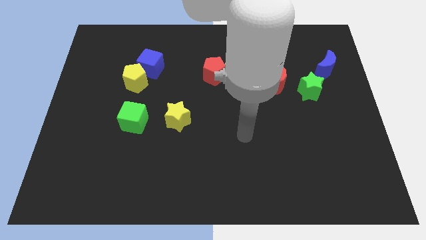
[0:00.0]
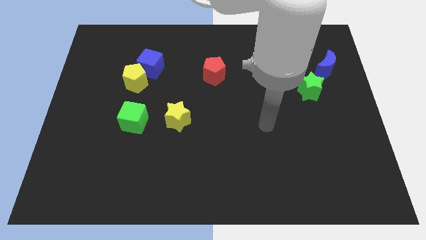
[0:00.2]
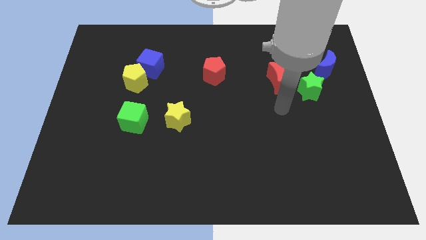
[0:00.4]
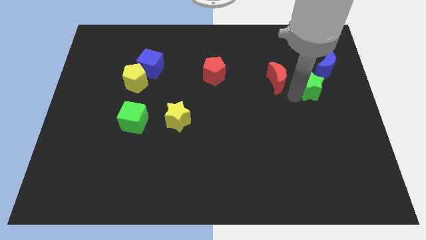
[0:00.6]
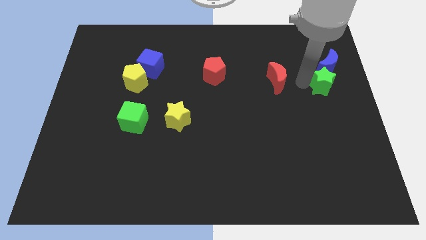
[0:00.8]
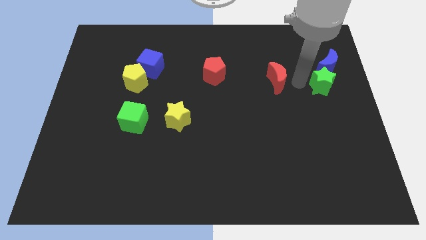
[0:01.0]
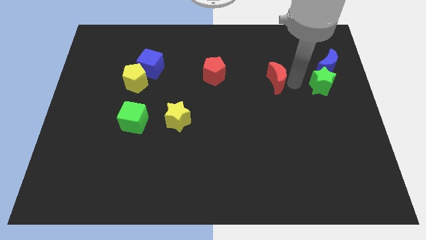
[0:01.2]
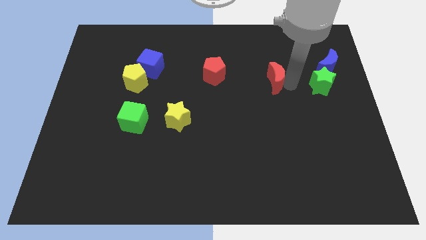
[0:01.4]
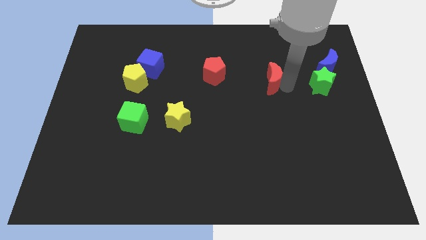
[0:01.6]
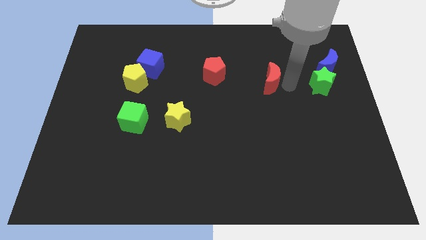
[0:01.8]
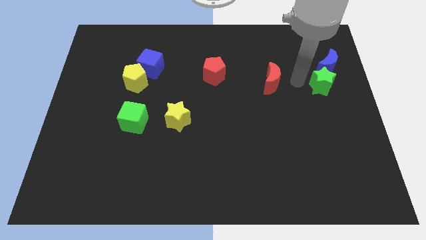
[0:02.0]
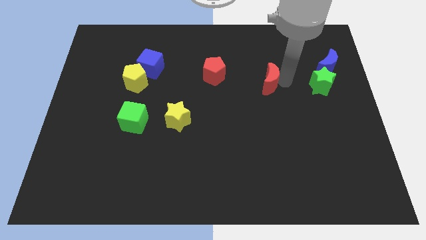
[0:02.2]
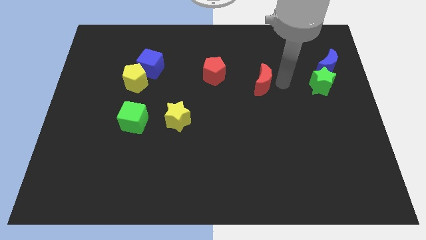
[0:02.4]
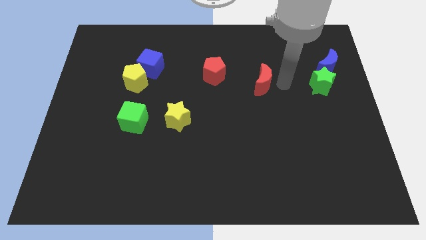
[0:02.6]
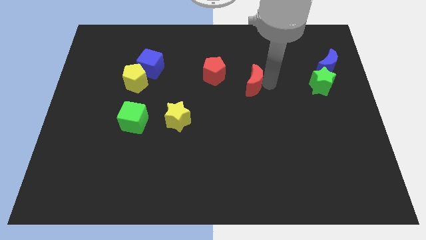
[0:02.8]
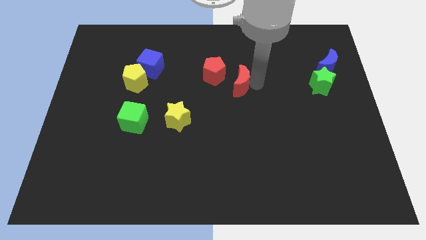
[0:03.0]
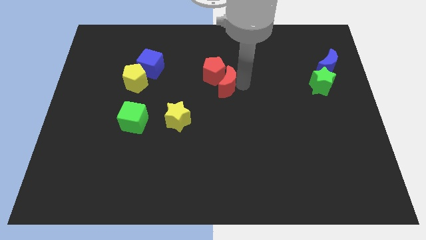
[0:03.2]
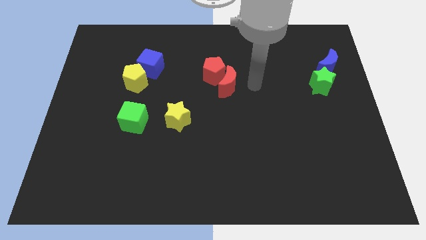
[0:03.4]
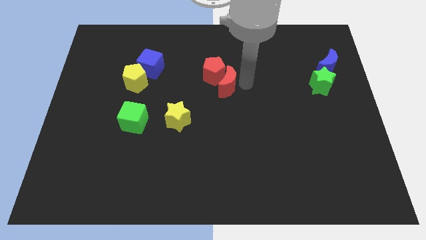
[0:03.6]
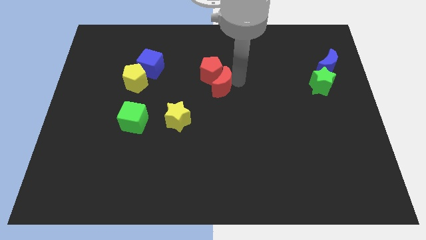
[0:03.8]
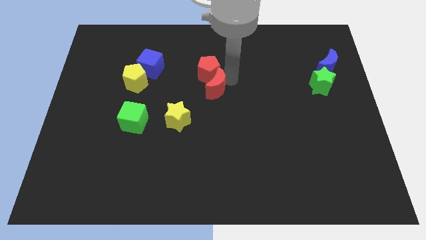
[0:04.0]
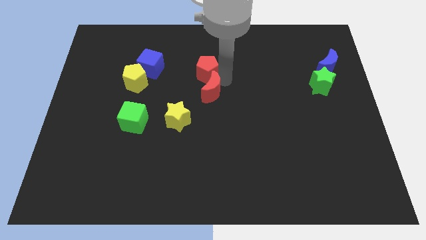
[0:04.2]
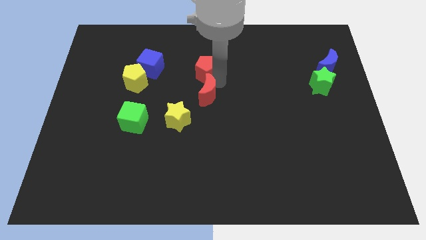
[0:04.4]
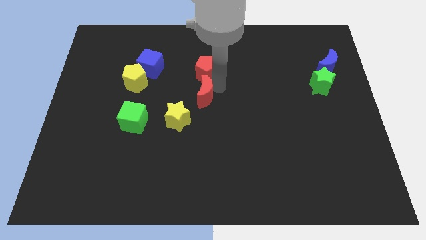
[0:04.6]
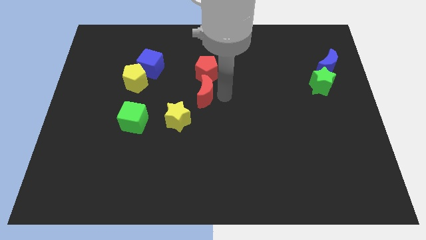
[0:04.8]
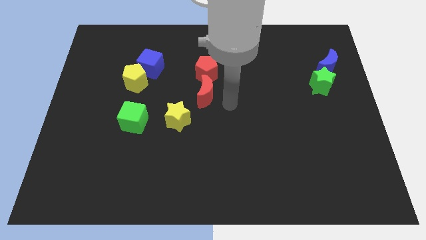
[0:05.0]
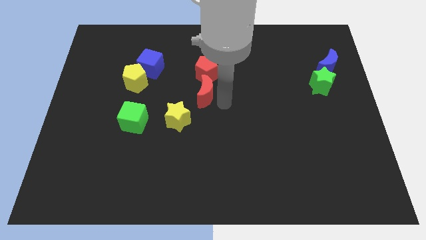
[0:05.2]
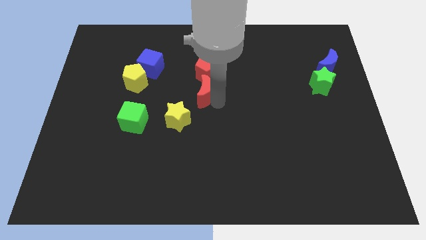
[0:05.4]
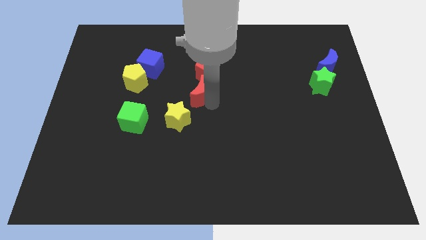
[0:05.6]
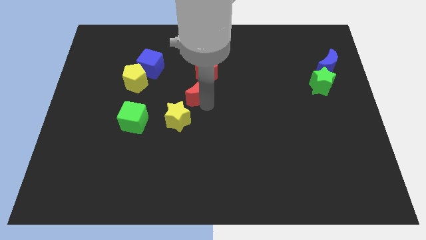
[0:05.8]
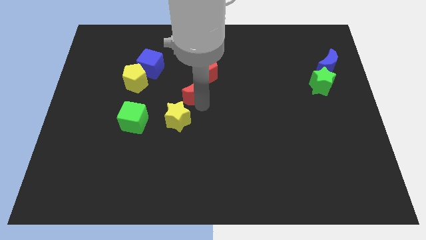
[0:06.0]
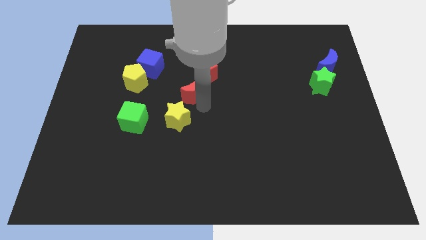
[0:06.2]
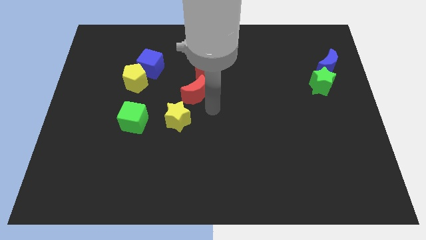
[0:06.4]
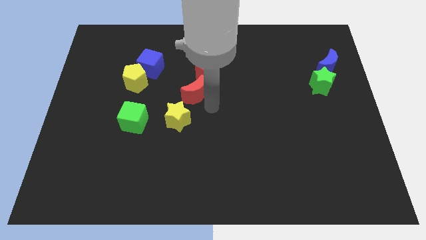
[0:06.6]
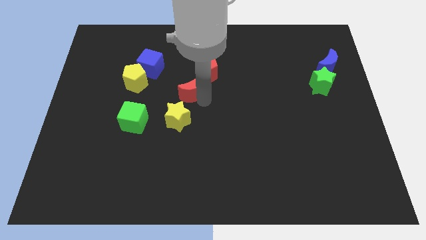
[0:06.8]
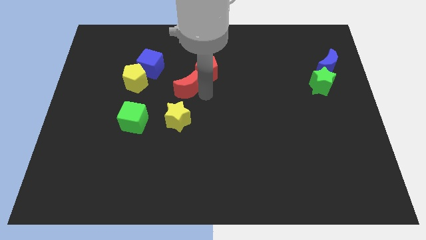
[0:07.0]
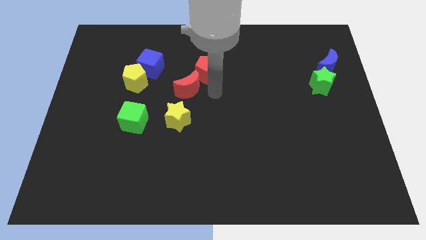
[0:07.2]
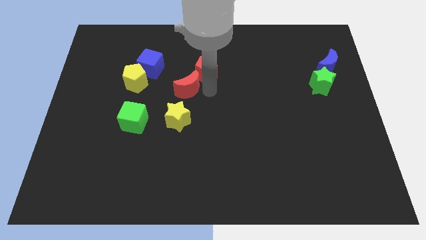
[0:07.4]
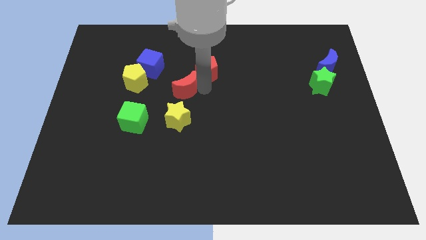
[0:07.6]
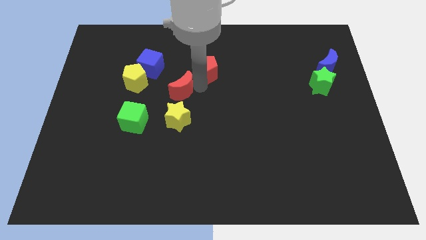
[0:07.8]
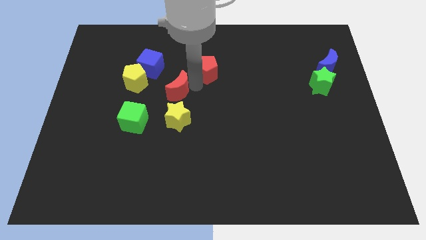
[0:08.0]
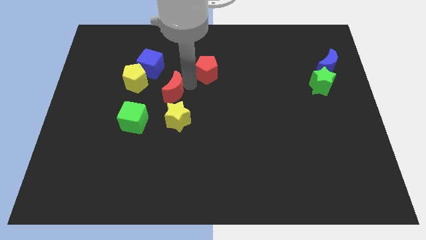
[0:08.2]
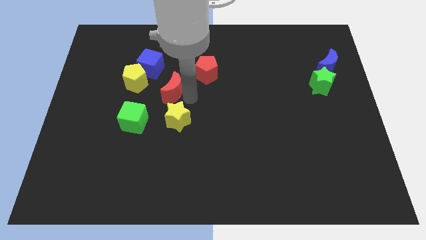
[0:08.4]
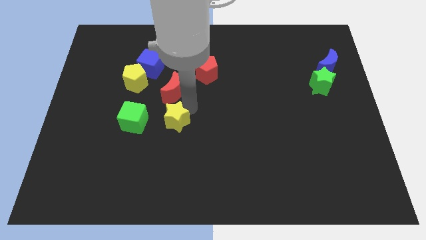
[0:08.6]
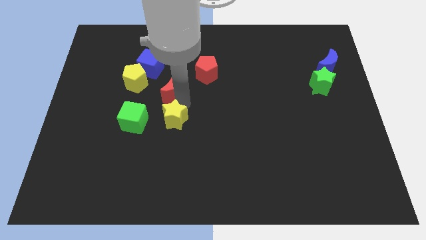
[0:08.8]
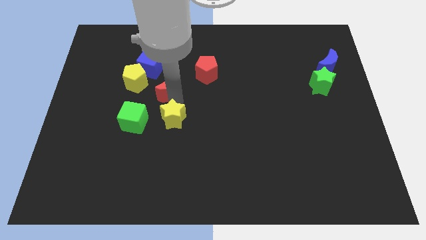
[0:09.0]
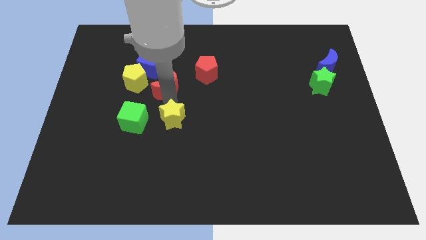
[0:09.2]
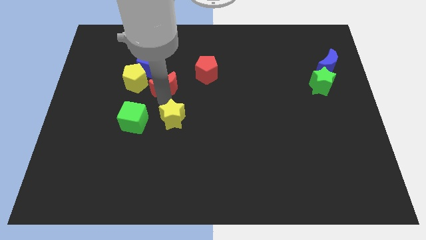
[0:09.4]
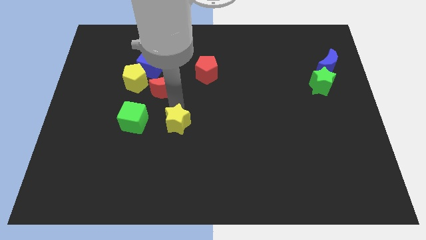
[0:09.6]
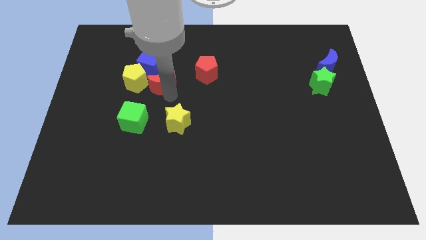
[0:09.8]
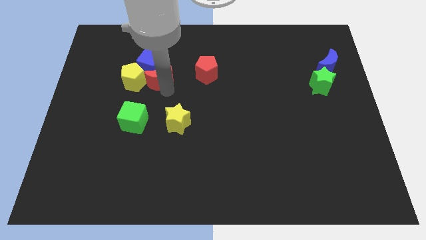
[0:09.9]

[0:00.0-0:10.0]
slide the red moon close to the blue cube

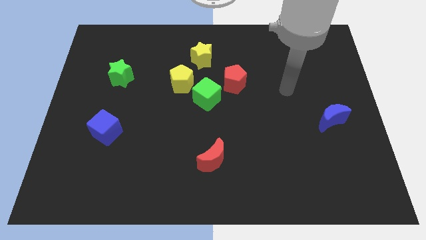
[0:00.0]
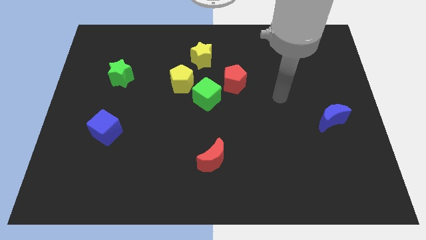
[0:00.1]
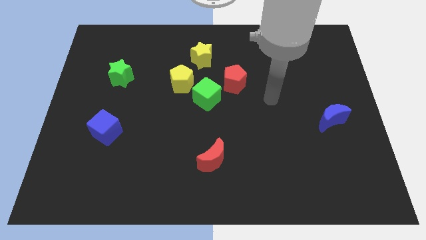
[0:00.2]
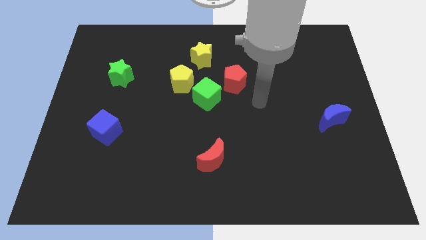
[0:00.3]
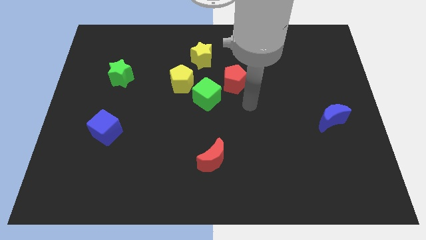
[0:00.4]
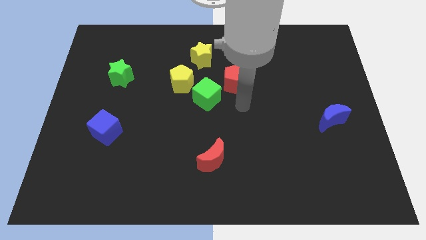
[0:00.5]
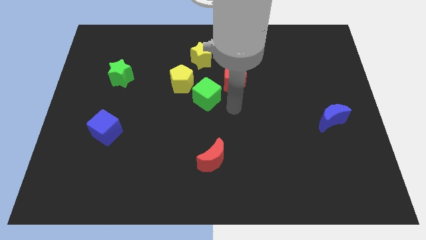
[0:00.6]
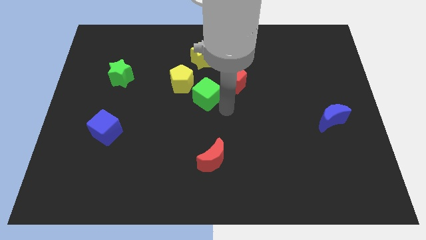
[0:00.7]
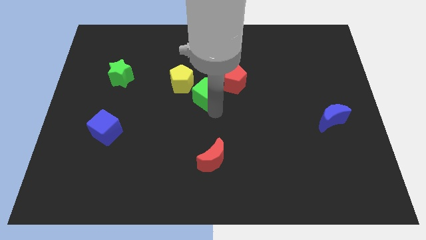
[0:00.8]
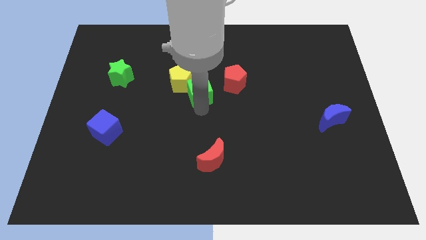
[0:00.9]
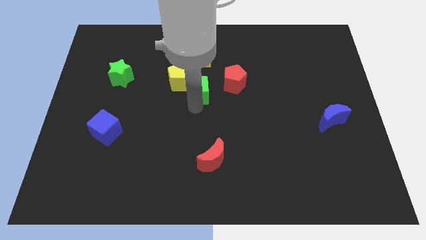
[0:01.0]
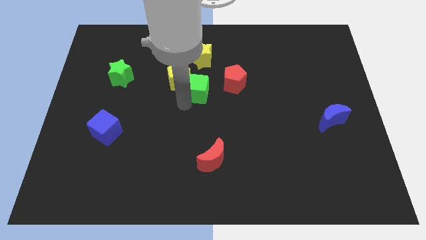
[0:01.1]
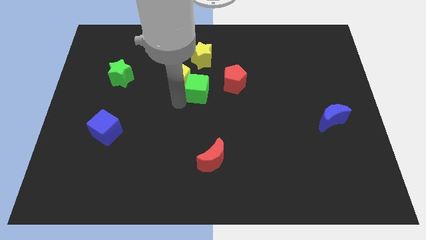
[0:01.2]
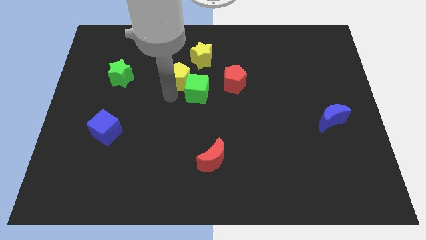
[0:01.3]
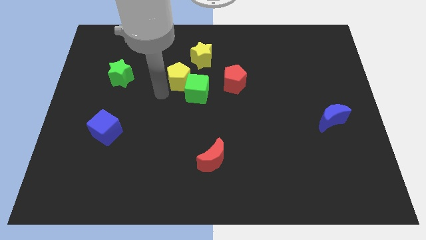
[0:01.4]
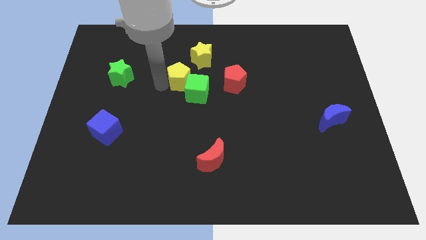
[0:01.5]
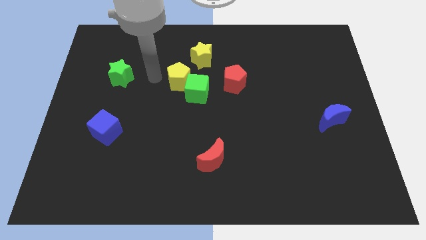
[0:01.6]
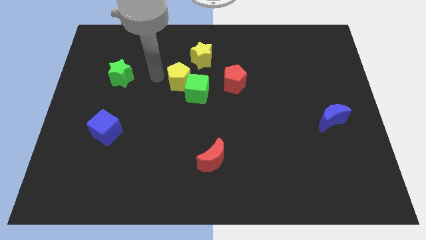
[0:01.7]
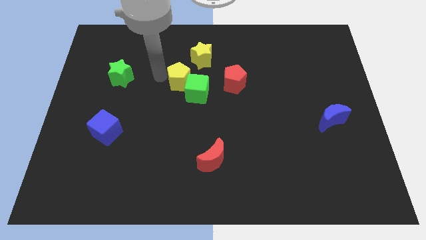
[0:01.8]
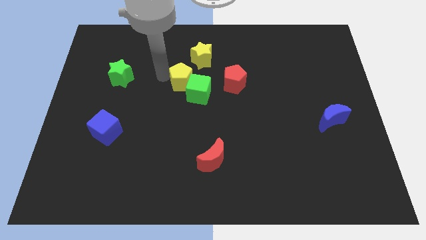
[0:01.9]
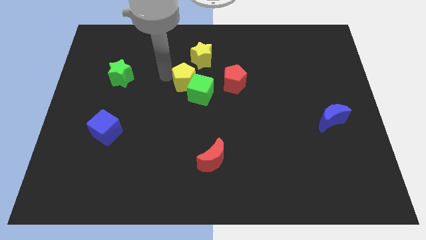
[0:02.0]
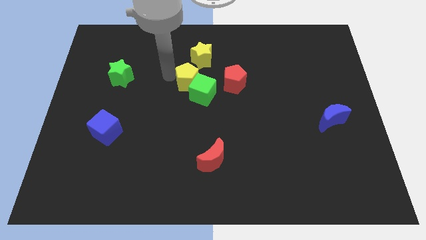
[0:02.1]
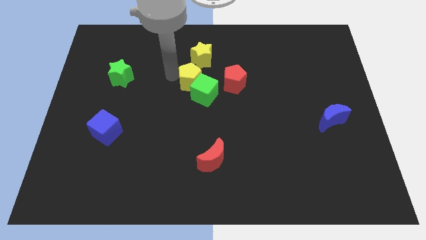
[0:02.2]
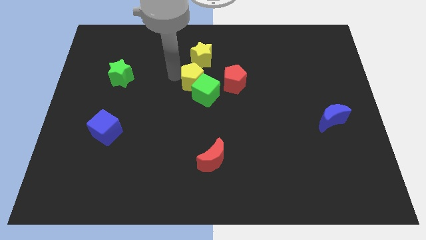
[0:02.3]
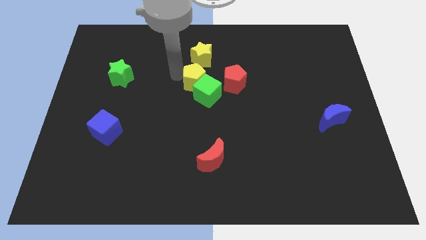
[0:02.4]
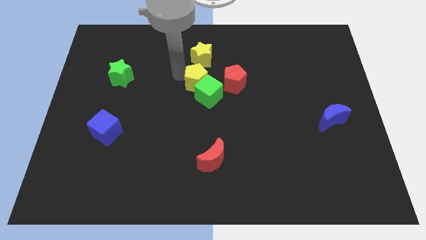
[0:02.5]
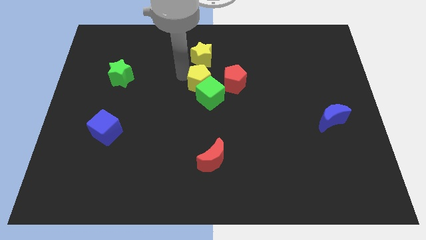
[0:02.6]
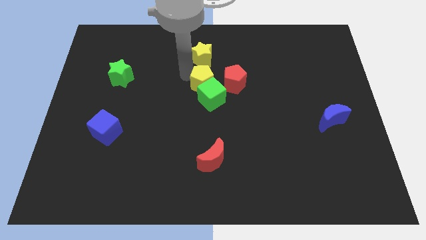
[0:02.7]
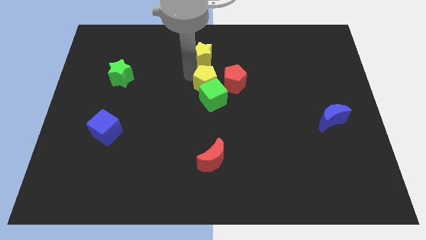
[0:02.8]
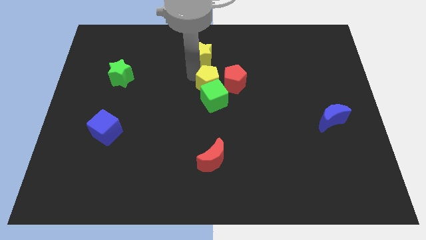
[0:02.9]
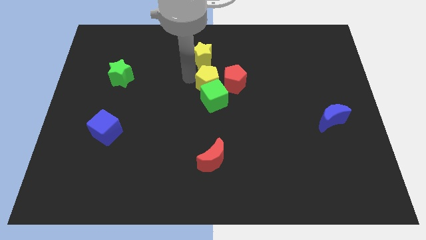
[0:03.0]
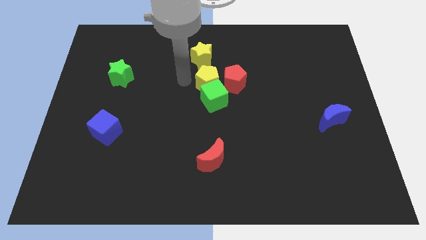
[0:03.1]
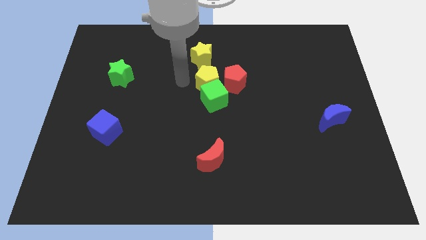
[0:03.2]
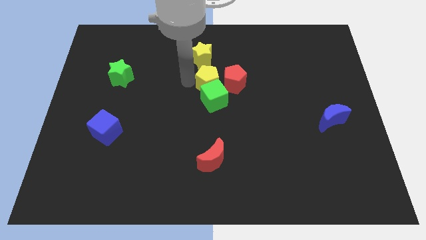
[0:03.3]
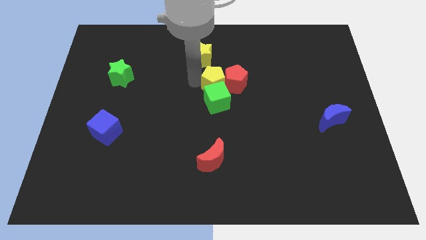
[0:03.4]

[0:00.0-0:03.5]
put the yellow pentagon to the red pentagon
